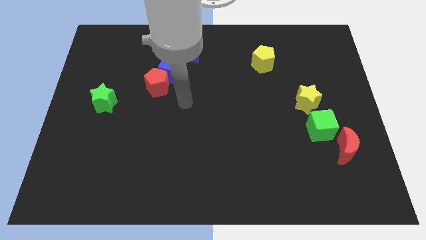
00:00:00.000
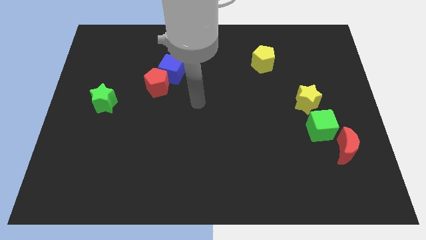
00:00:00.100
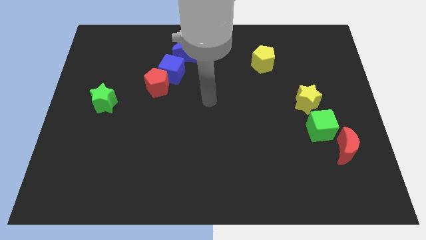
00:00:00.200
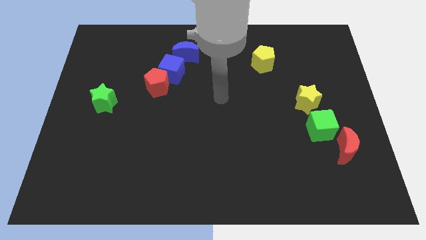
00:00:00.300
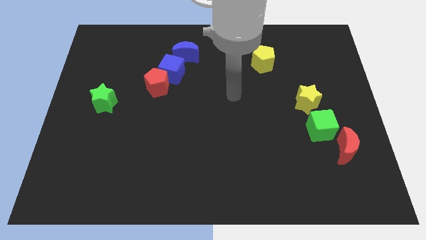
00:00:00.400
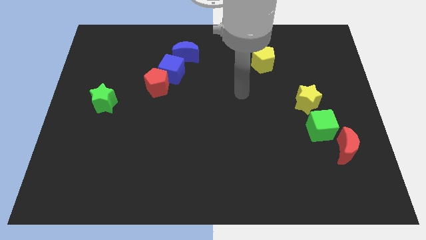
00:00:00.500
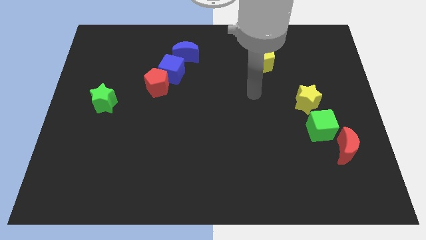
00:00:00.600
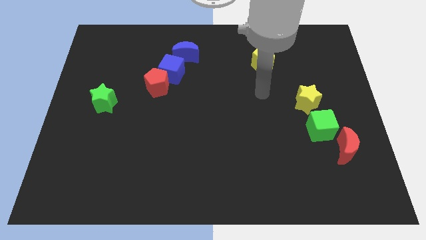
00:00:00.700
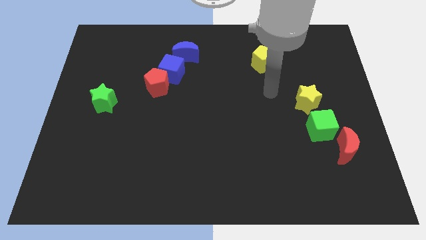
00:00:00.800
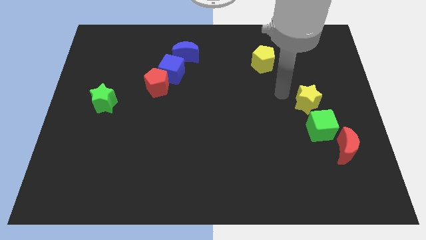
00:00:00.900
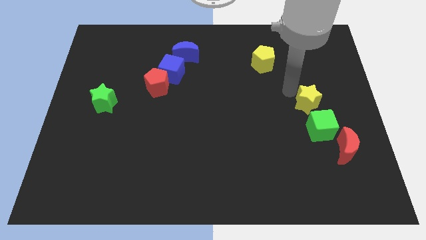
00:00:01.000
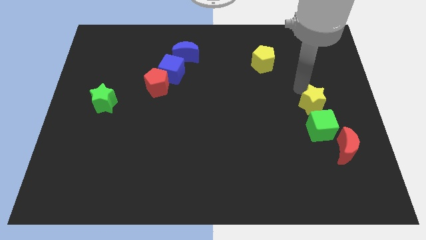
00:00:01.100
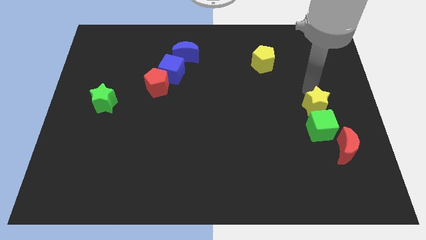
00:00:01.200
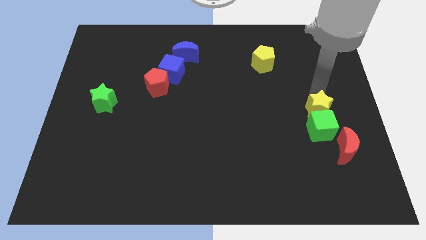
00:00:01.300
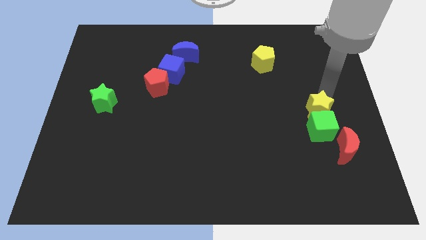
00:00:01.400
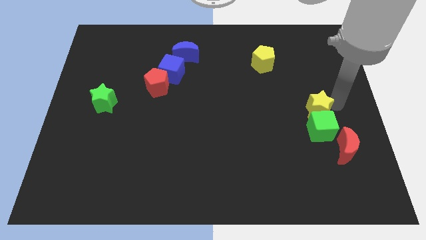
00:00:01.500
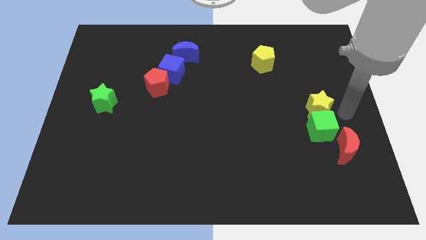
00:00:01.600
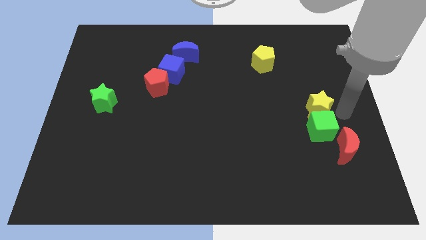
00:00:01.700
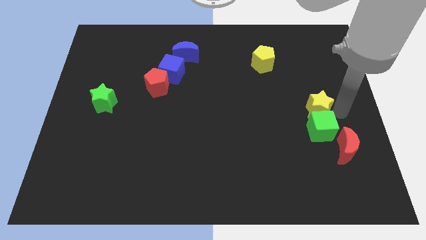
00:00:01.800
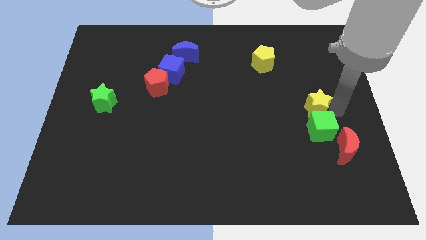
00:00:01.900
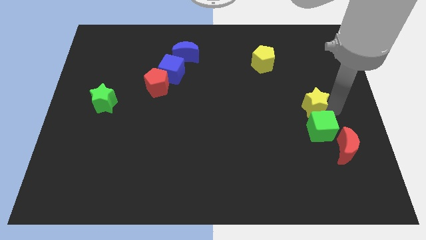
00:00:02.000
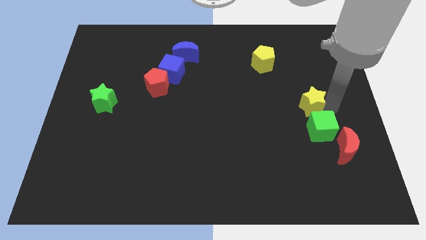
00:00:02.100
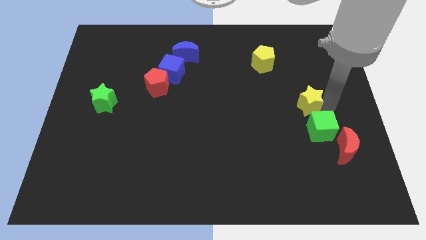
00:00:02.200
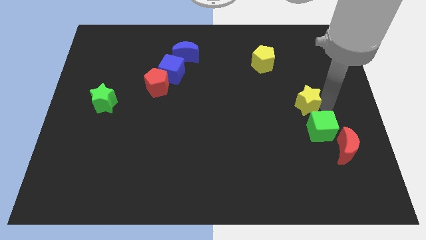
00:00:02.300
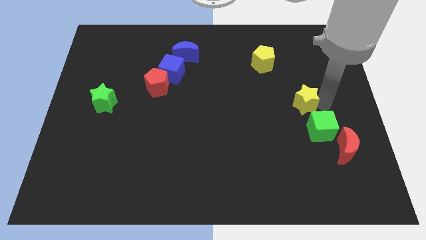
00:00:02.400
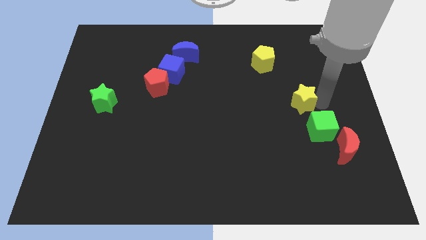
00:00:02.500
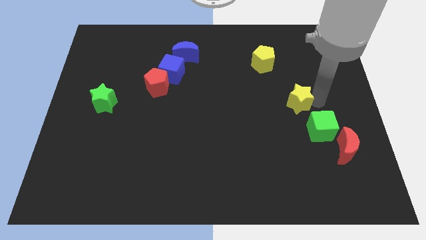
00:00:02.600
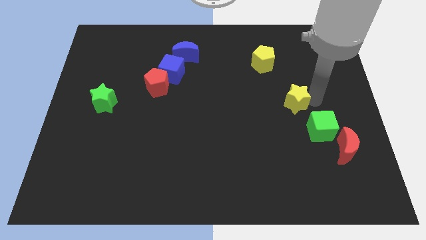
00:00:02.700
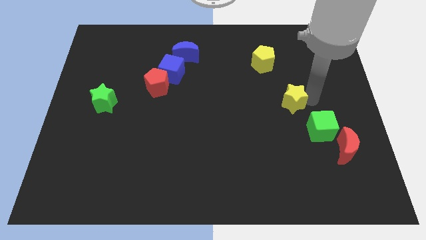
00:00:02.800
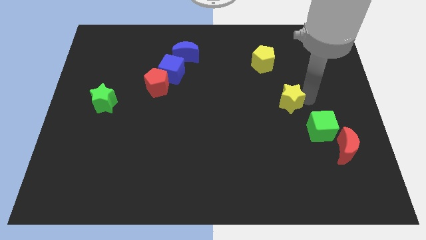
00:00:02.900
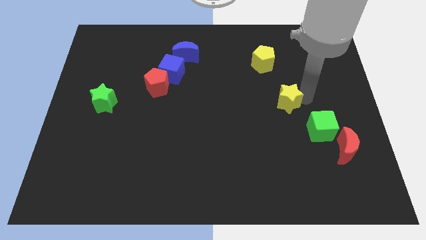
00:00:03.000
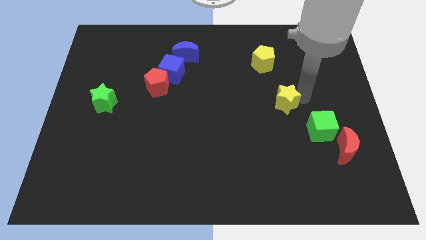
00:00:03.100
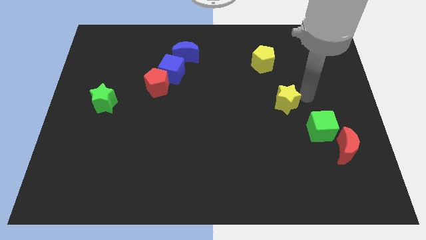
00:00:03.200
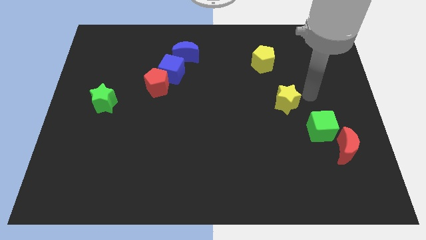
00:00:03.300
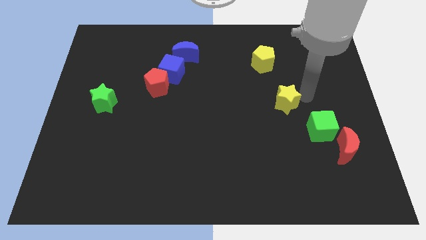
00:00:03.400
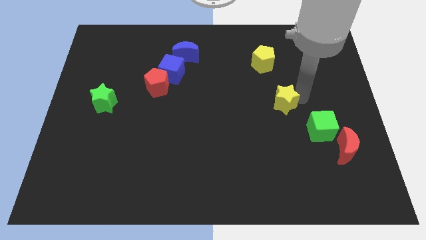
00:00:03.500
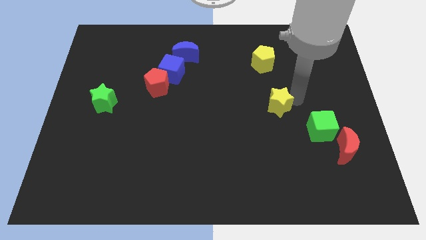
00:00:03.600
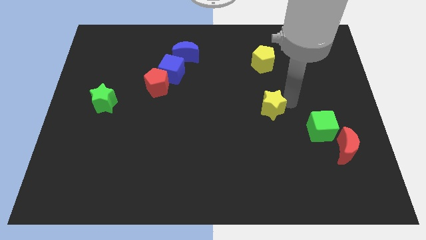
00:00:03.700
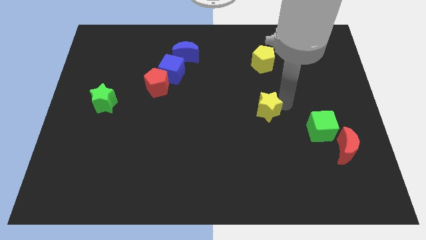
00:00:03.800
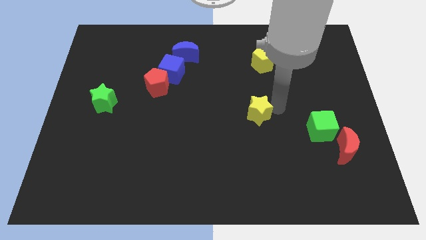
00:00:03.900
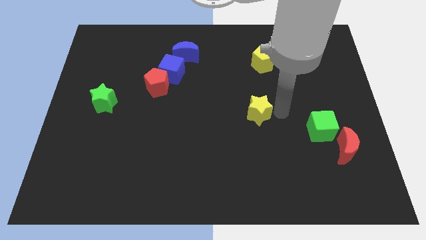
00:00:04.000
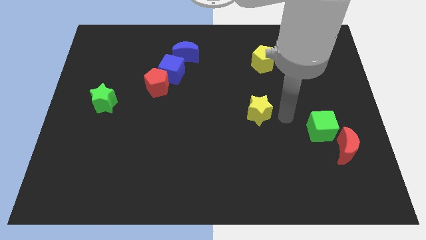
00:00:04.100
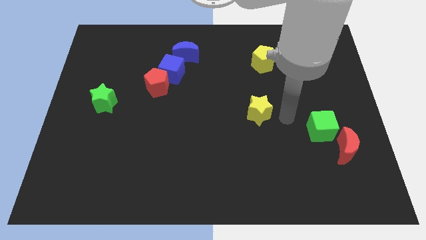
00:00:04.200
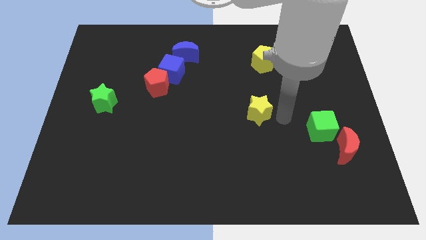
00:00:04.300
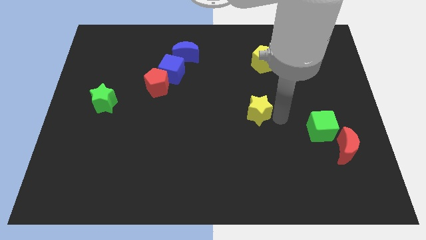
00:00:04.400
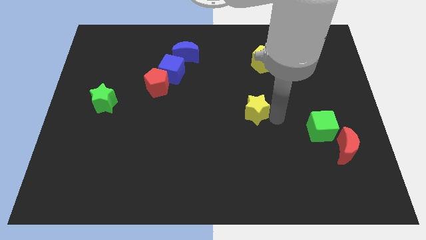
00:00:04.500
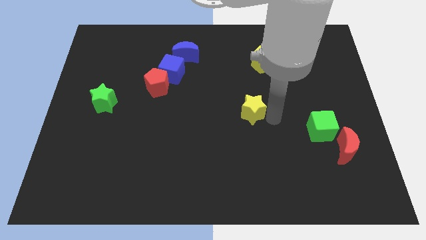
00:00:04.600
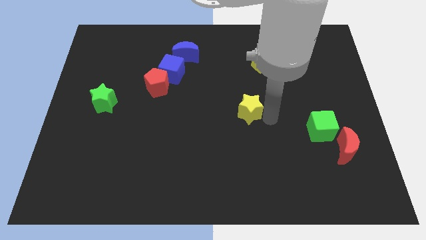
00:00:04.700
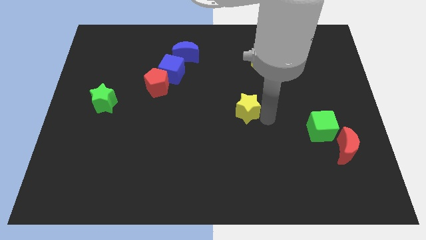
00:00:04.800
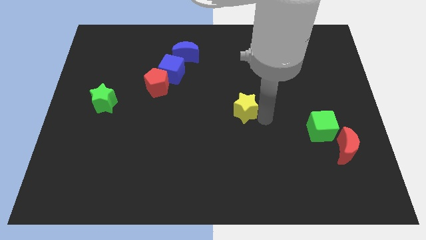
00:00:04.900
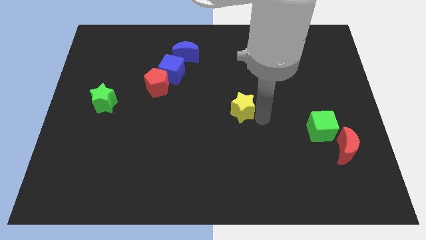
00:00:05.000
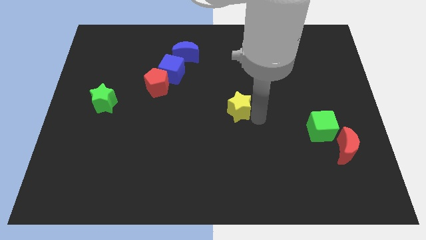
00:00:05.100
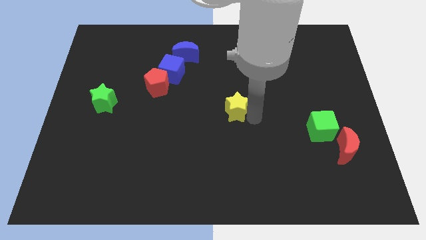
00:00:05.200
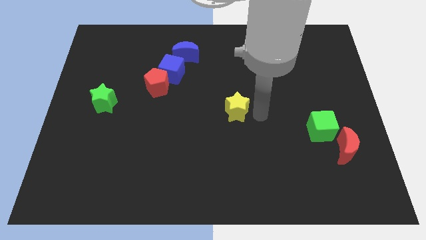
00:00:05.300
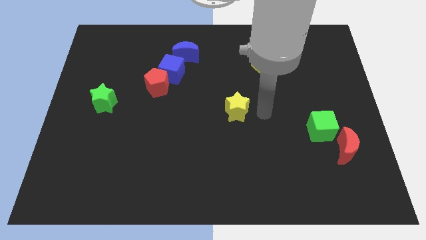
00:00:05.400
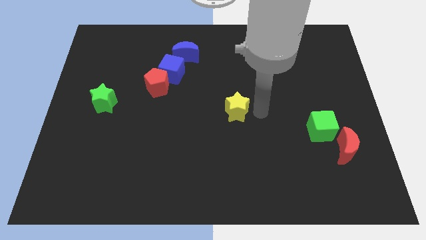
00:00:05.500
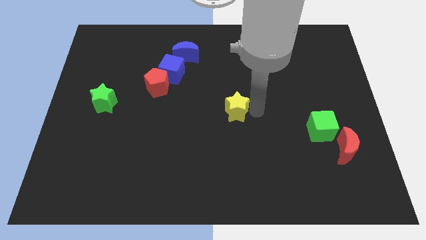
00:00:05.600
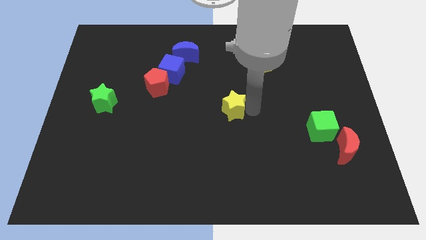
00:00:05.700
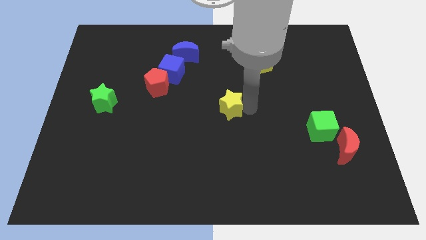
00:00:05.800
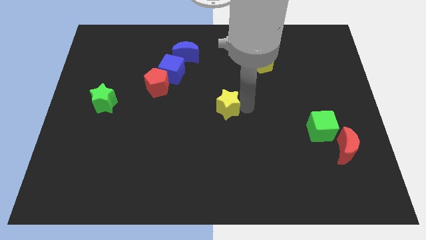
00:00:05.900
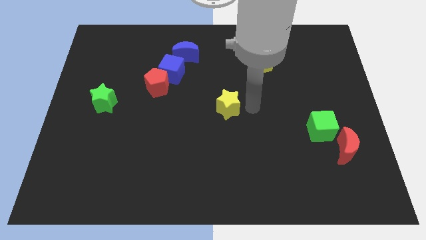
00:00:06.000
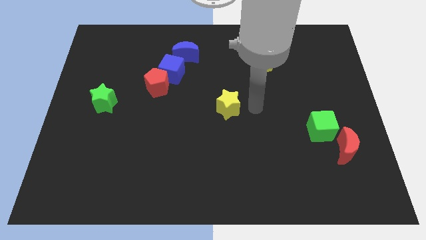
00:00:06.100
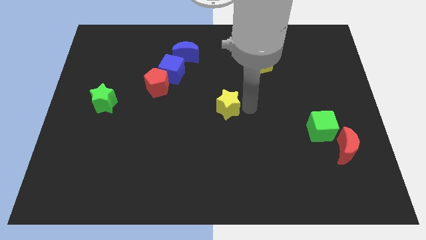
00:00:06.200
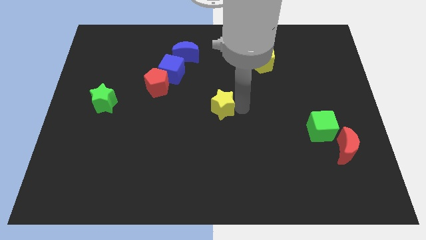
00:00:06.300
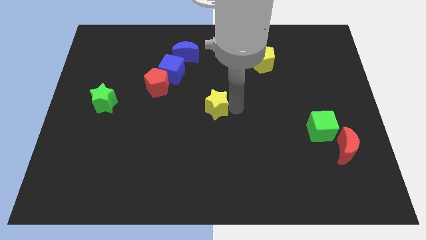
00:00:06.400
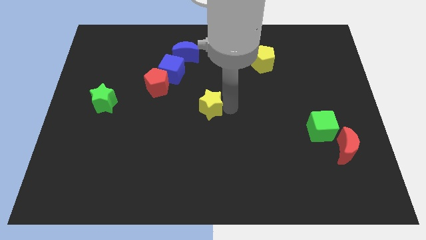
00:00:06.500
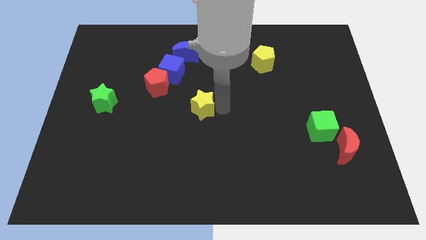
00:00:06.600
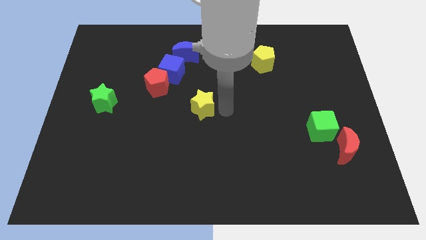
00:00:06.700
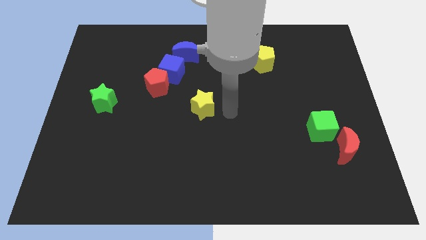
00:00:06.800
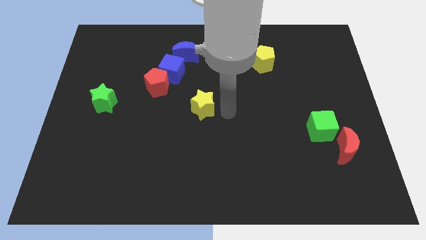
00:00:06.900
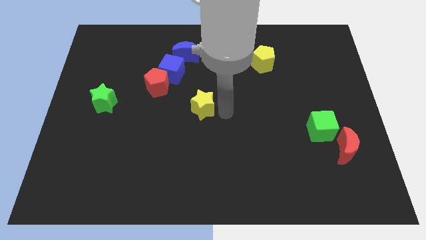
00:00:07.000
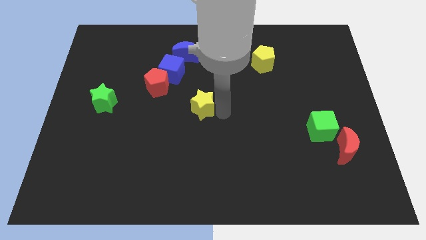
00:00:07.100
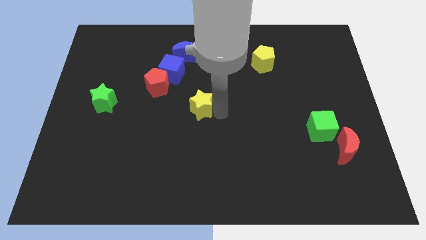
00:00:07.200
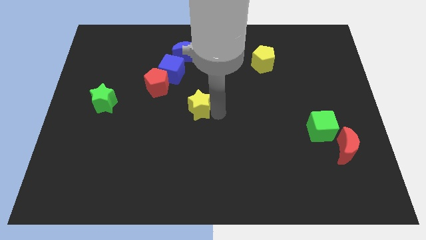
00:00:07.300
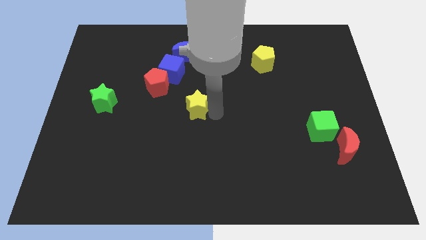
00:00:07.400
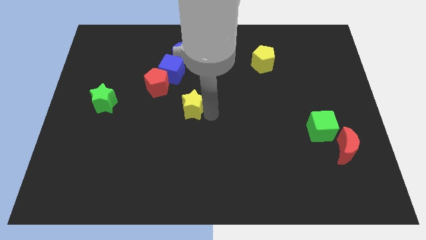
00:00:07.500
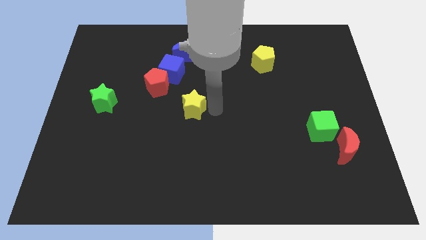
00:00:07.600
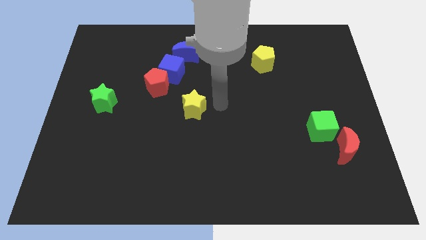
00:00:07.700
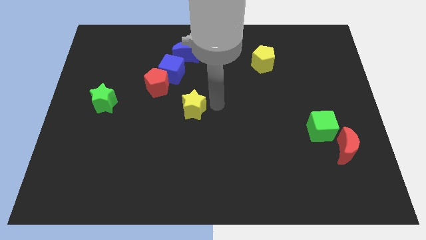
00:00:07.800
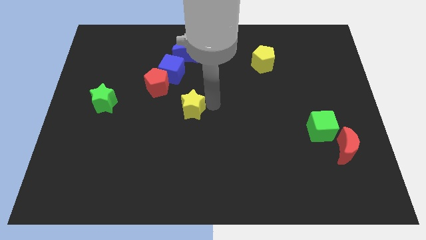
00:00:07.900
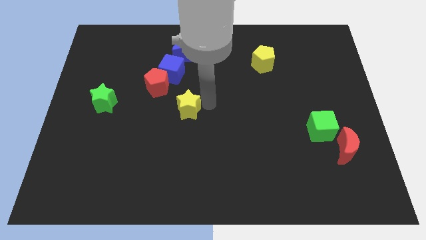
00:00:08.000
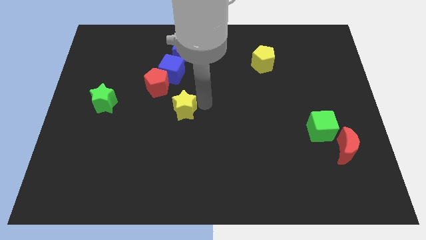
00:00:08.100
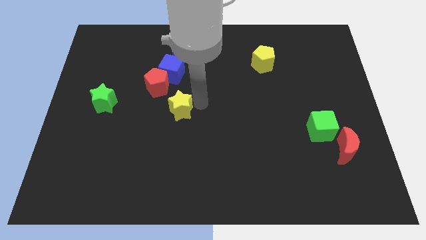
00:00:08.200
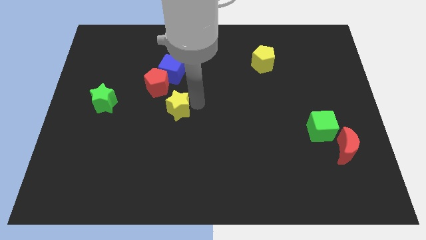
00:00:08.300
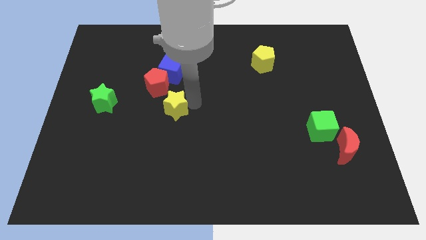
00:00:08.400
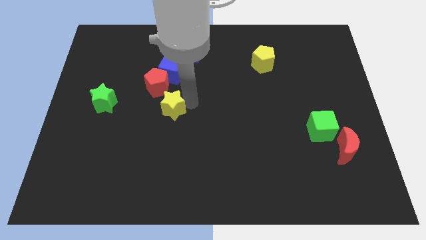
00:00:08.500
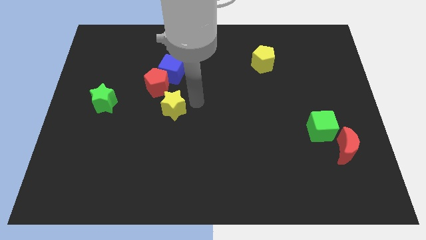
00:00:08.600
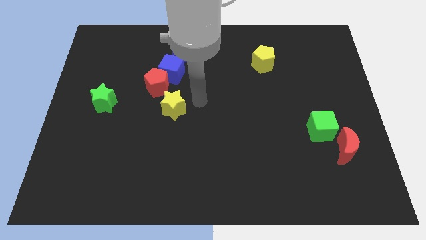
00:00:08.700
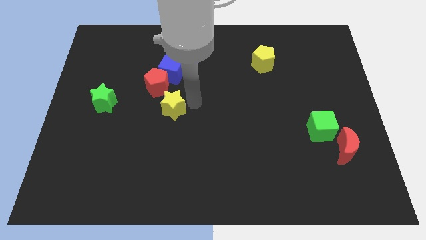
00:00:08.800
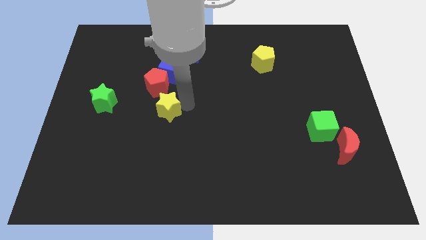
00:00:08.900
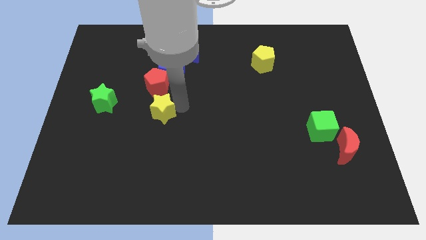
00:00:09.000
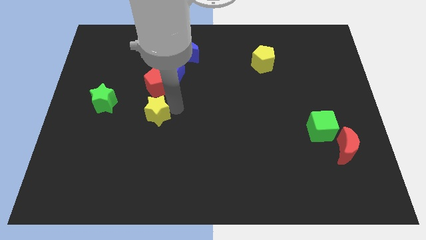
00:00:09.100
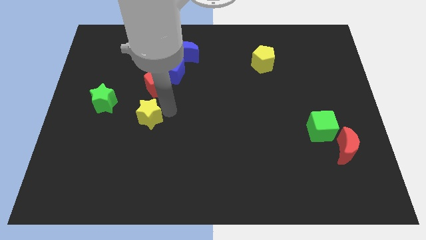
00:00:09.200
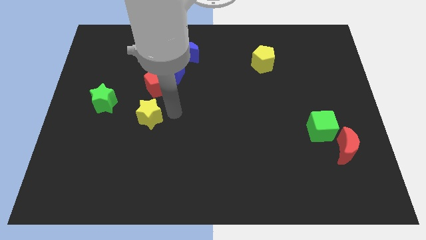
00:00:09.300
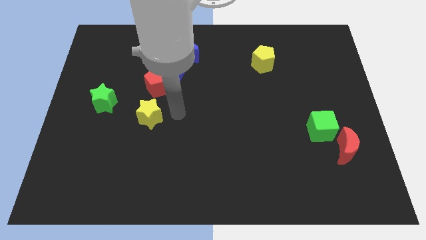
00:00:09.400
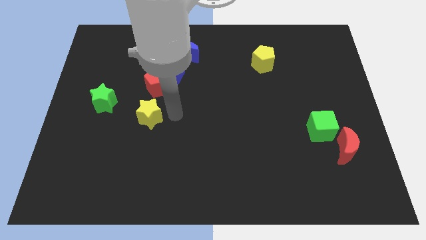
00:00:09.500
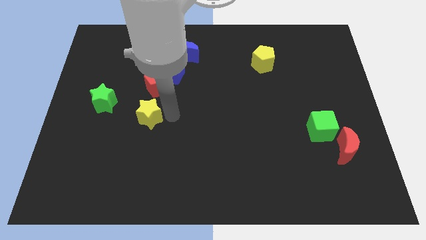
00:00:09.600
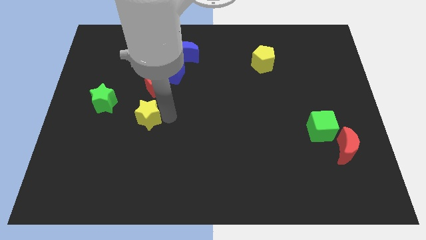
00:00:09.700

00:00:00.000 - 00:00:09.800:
push the yellow star to the bottom right side of the green star
